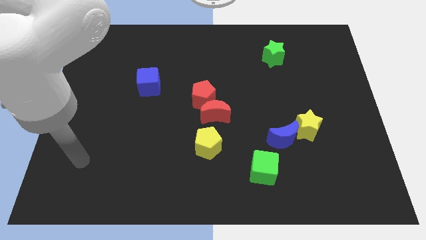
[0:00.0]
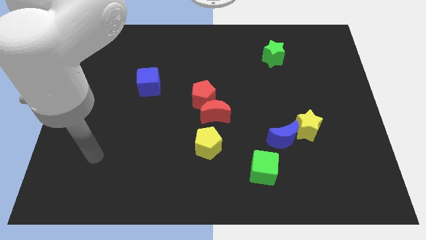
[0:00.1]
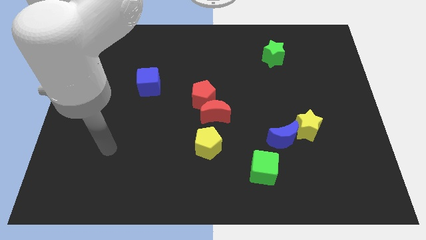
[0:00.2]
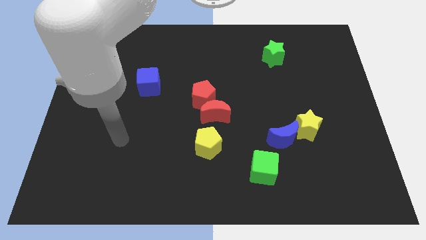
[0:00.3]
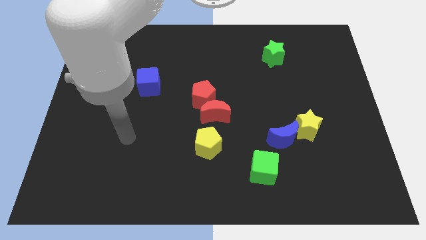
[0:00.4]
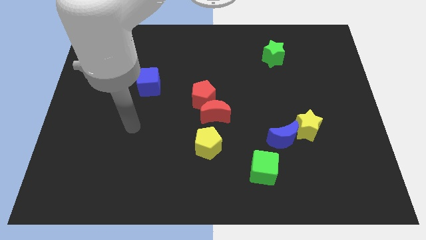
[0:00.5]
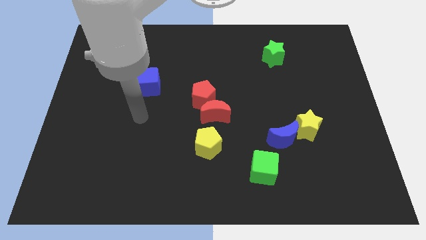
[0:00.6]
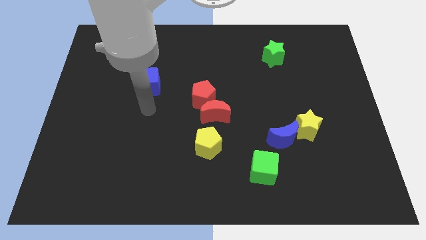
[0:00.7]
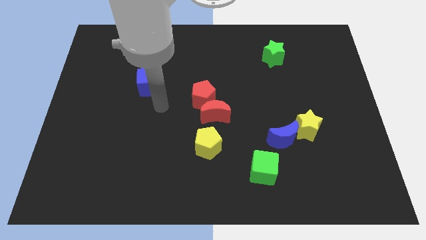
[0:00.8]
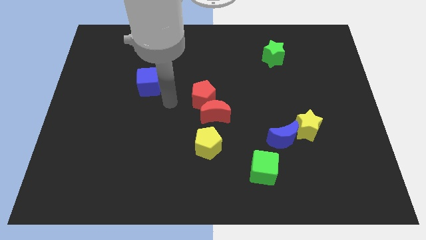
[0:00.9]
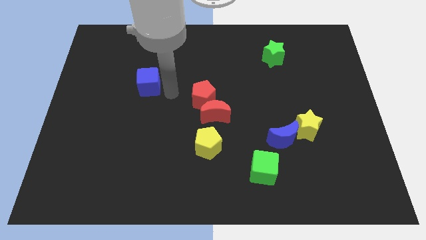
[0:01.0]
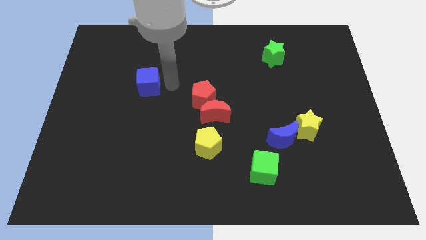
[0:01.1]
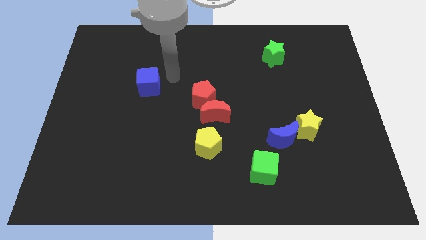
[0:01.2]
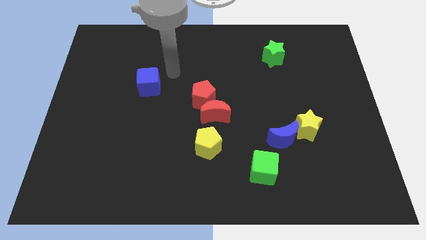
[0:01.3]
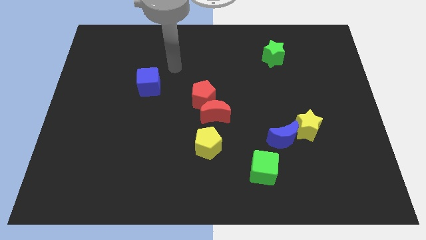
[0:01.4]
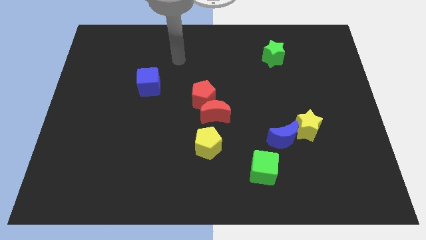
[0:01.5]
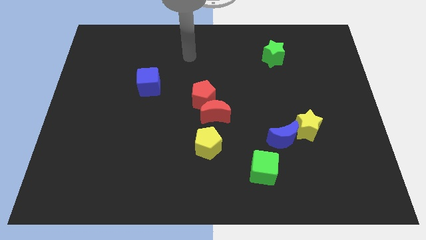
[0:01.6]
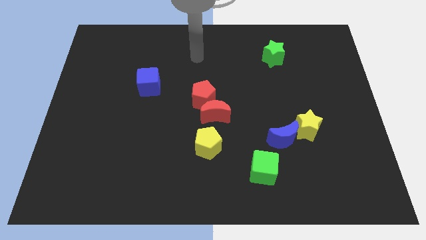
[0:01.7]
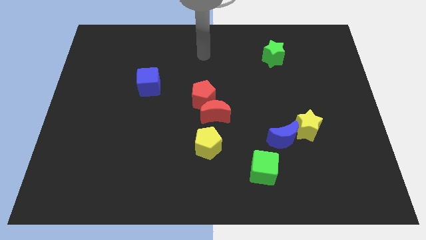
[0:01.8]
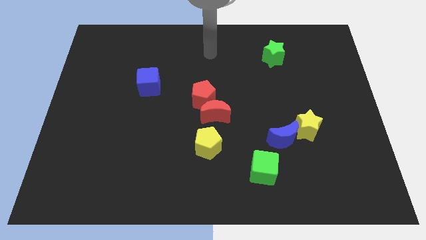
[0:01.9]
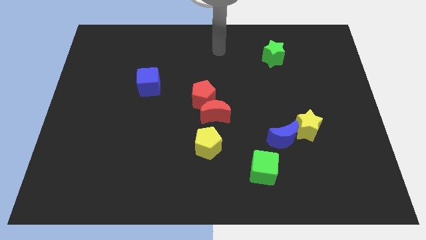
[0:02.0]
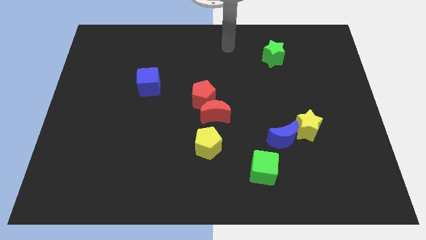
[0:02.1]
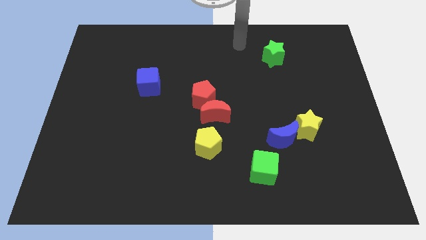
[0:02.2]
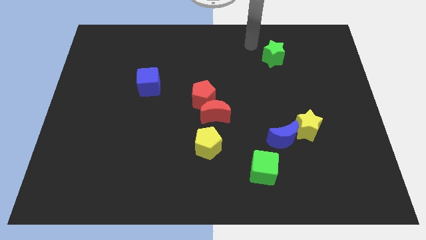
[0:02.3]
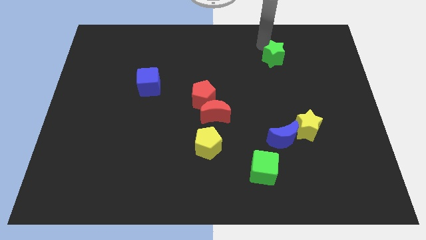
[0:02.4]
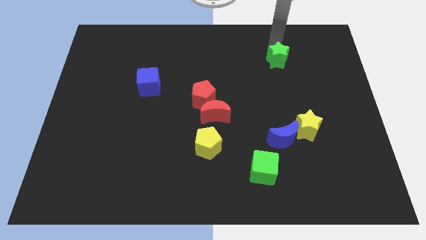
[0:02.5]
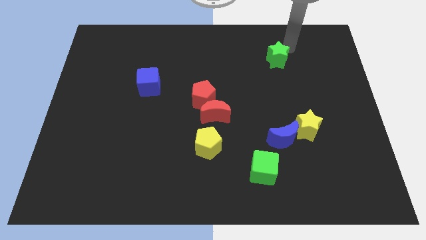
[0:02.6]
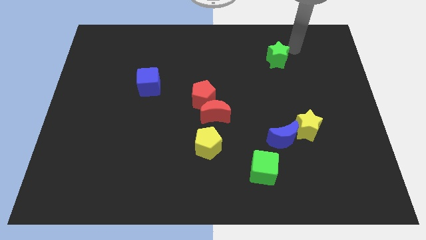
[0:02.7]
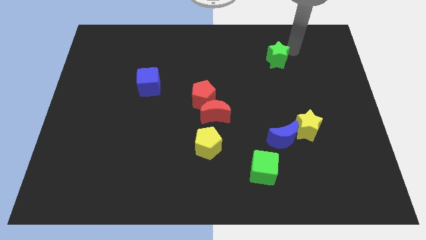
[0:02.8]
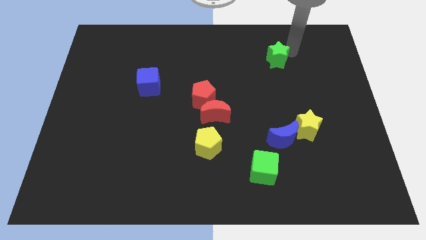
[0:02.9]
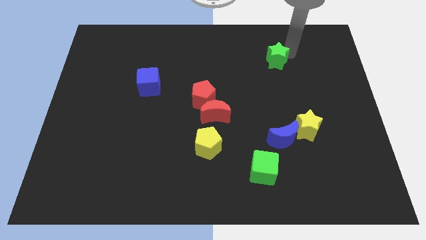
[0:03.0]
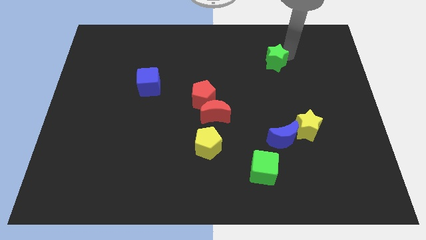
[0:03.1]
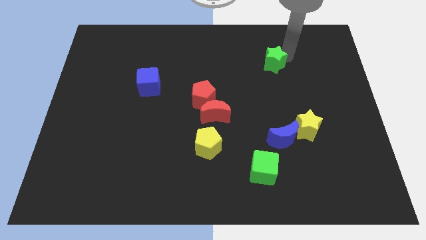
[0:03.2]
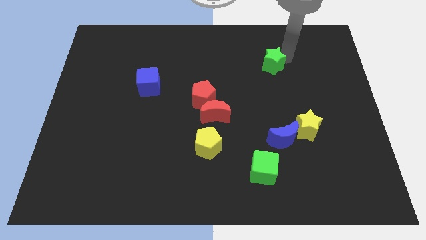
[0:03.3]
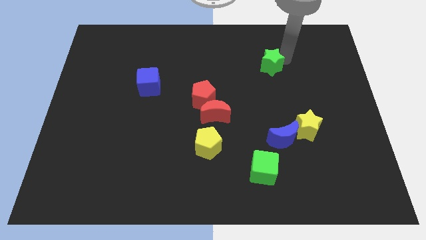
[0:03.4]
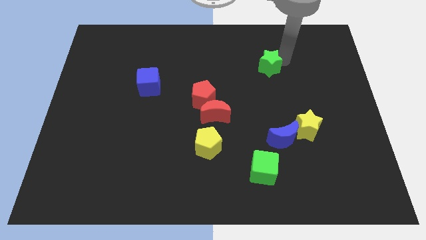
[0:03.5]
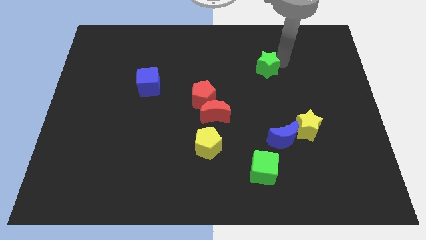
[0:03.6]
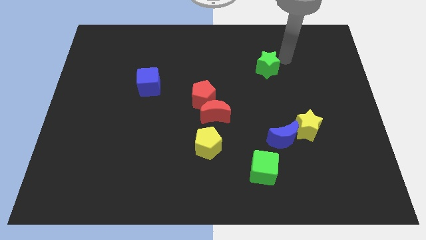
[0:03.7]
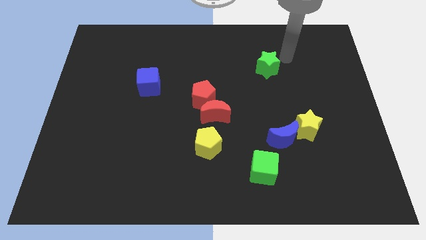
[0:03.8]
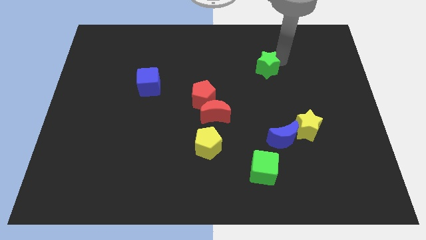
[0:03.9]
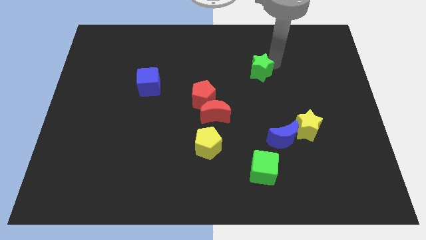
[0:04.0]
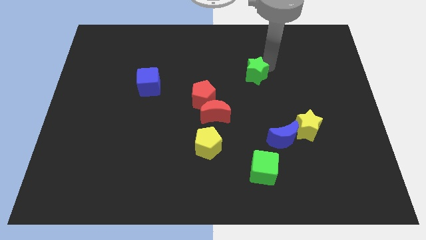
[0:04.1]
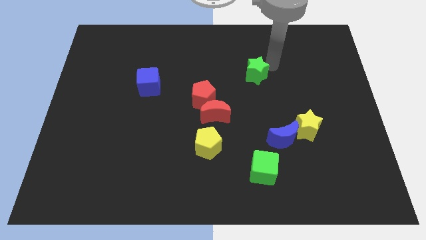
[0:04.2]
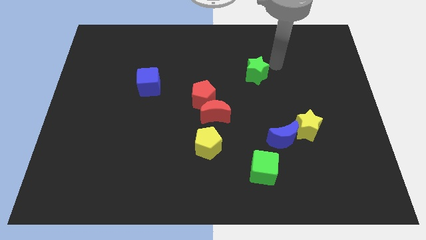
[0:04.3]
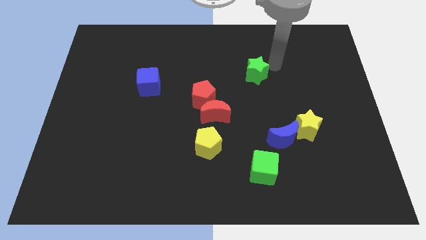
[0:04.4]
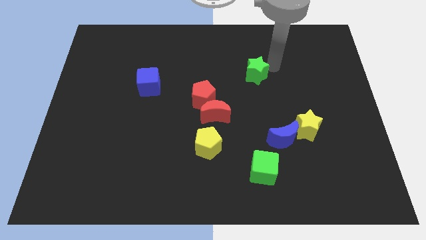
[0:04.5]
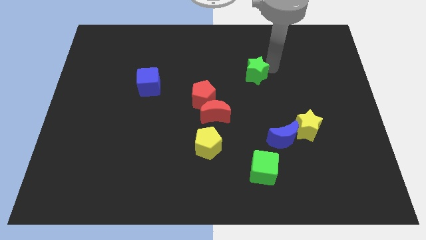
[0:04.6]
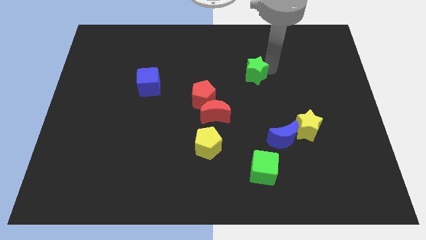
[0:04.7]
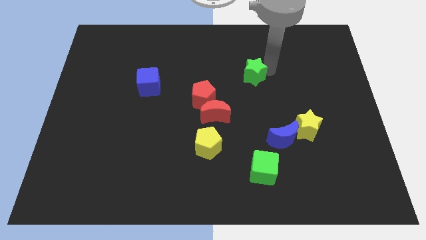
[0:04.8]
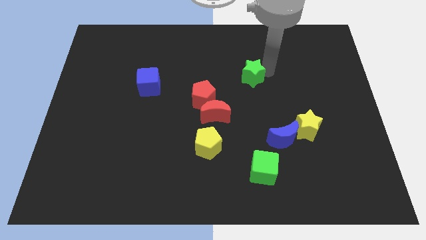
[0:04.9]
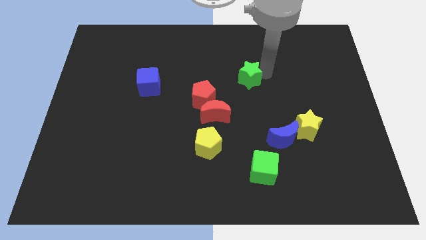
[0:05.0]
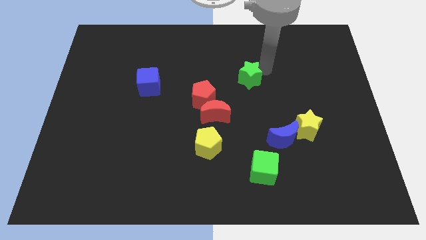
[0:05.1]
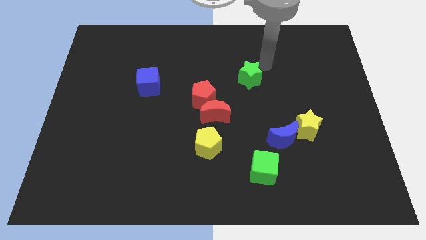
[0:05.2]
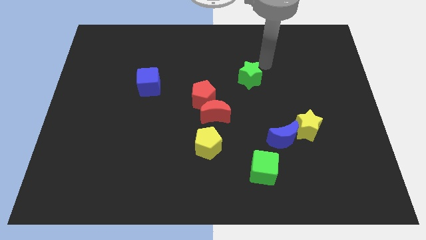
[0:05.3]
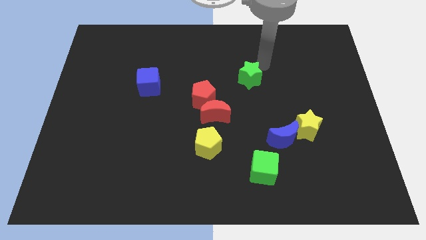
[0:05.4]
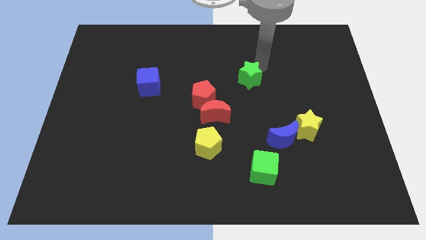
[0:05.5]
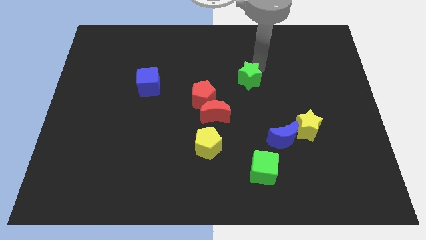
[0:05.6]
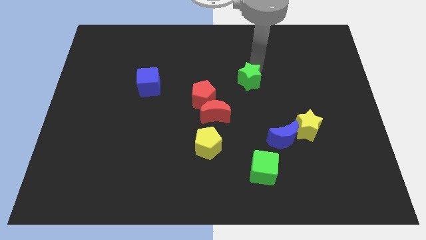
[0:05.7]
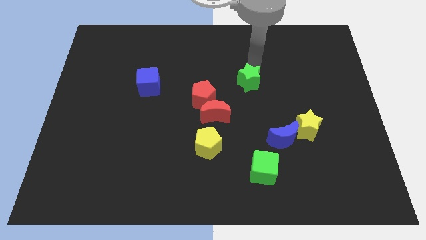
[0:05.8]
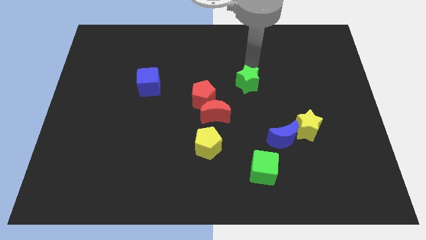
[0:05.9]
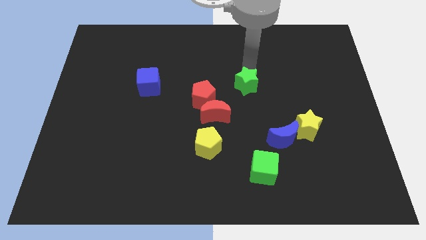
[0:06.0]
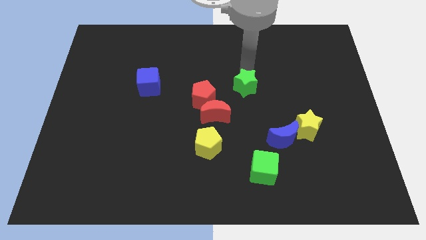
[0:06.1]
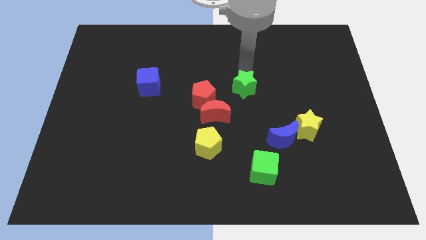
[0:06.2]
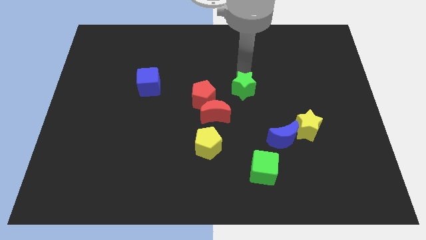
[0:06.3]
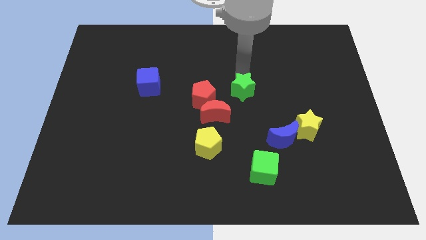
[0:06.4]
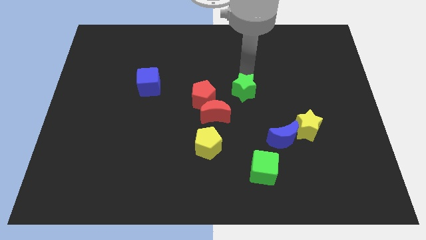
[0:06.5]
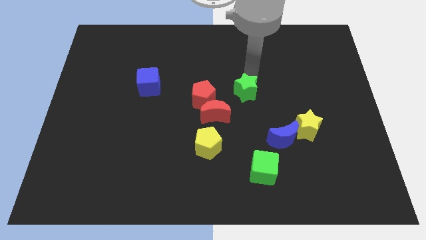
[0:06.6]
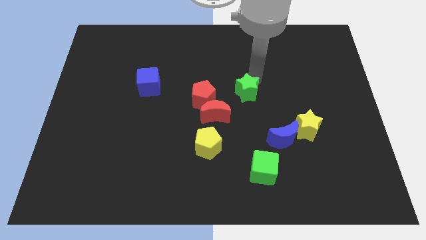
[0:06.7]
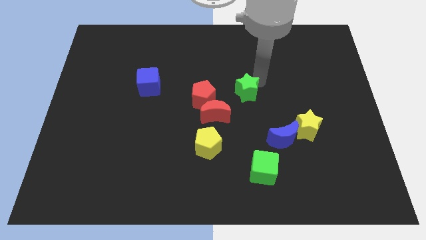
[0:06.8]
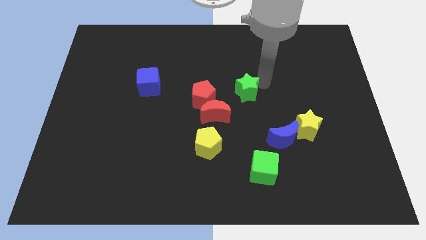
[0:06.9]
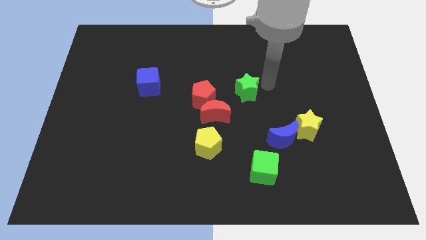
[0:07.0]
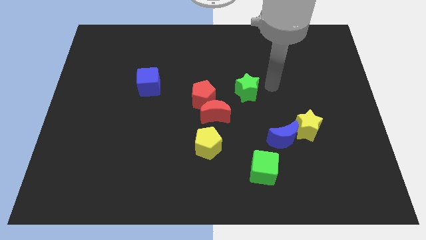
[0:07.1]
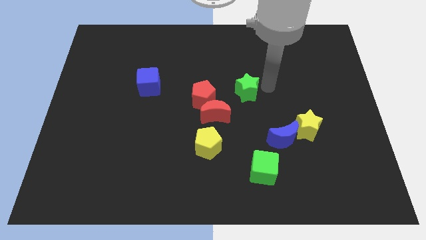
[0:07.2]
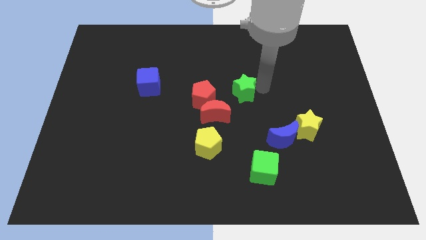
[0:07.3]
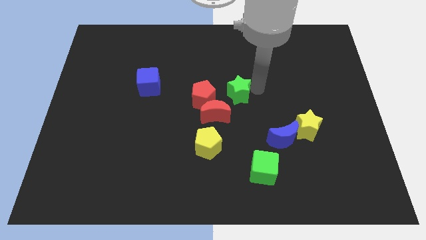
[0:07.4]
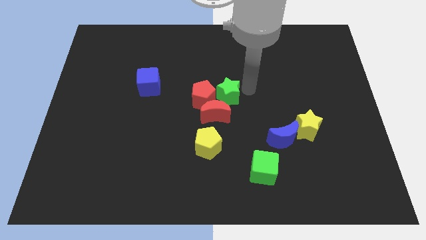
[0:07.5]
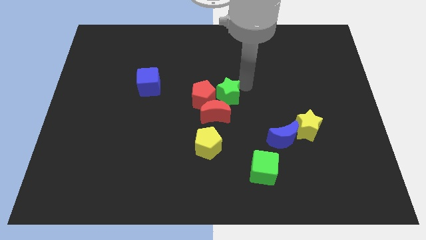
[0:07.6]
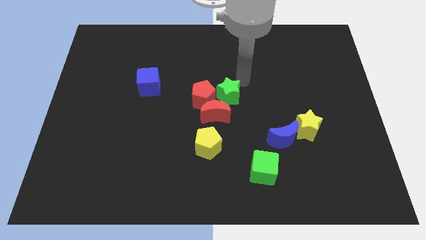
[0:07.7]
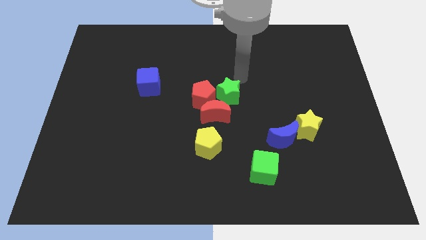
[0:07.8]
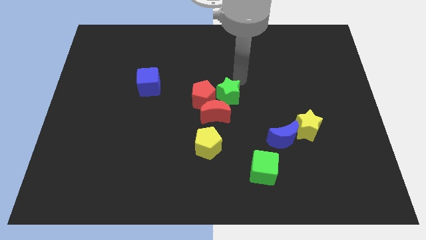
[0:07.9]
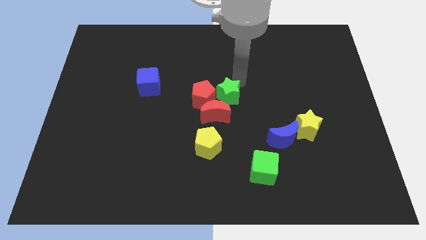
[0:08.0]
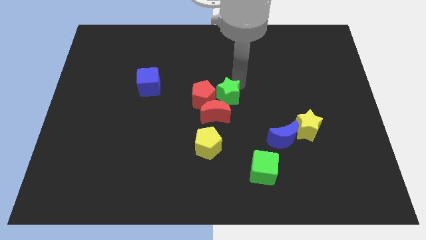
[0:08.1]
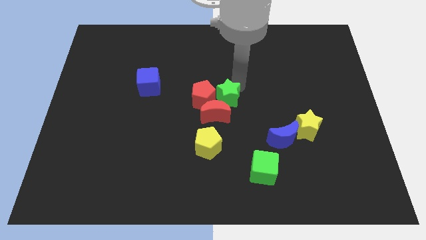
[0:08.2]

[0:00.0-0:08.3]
put the green star towards the red moon
